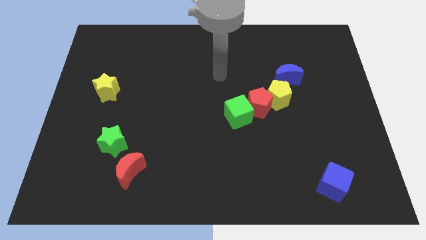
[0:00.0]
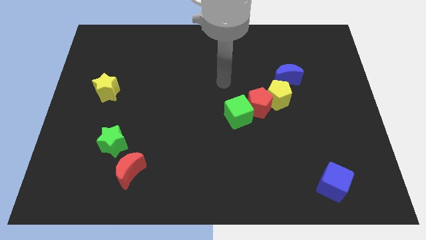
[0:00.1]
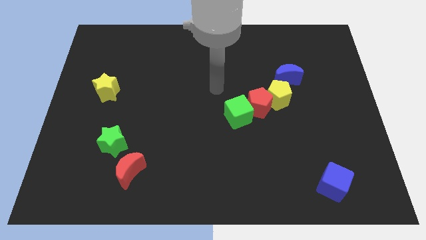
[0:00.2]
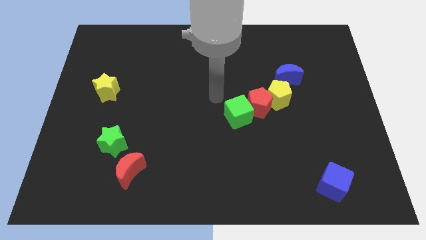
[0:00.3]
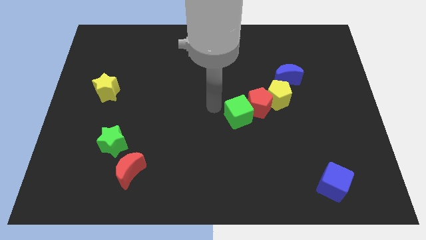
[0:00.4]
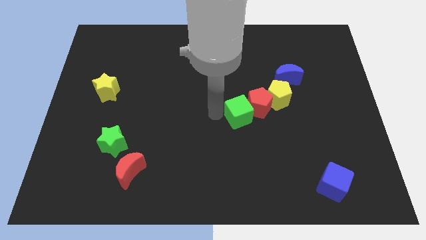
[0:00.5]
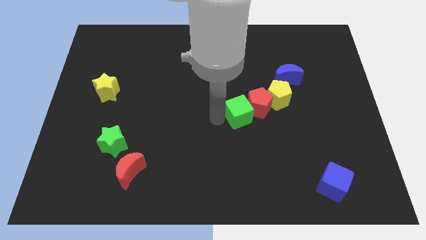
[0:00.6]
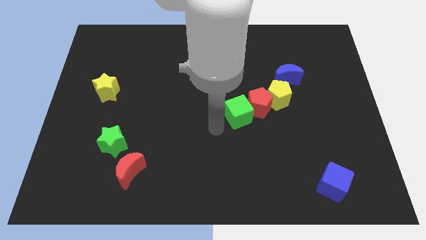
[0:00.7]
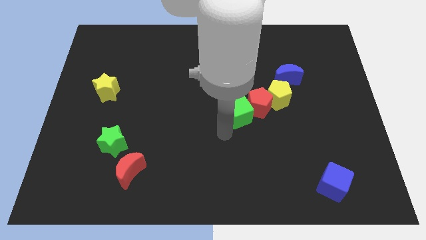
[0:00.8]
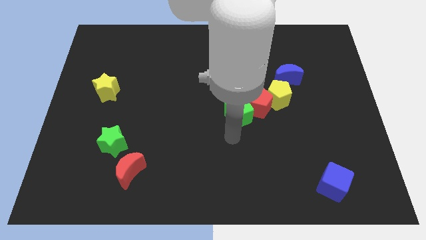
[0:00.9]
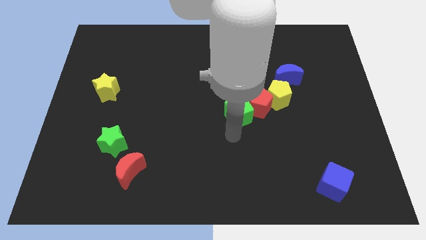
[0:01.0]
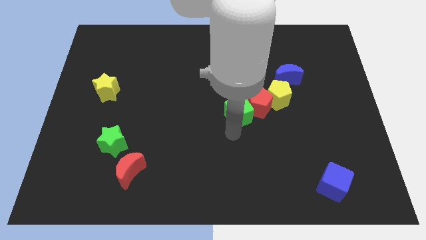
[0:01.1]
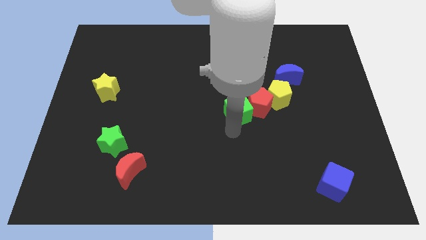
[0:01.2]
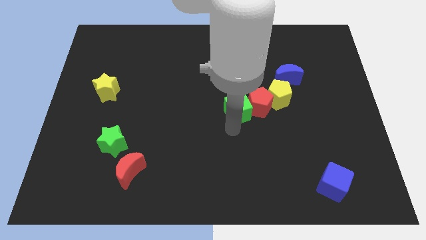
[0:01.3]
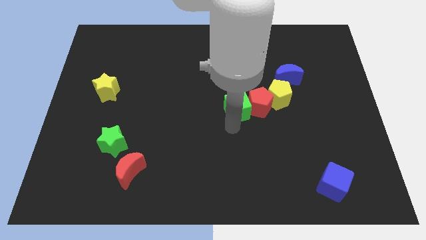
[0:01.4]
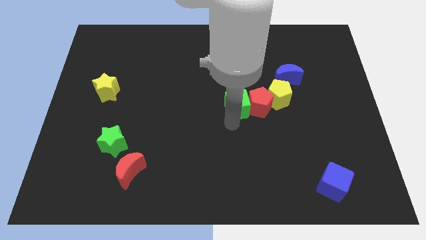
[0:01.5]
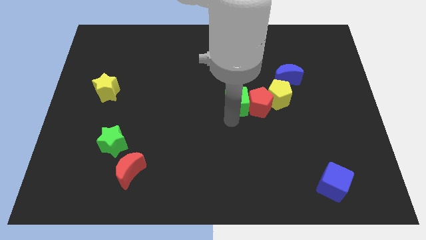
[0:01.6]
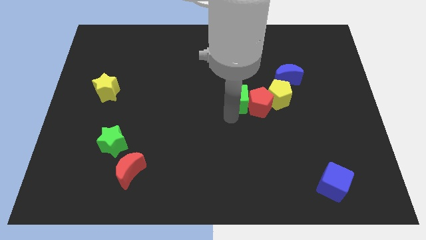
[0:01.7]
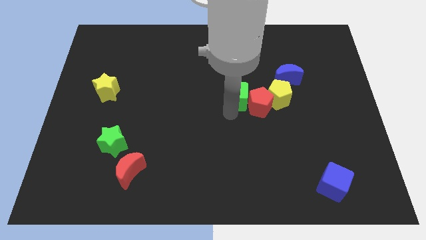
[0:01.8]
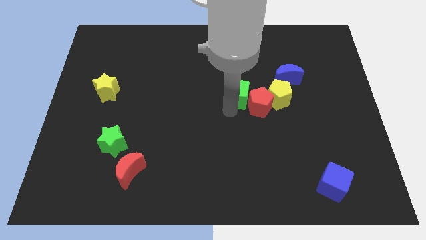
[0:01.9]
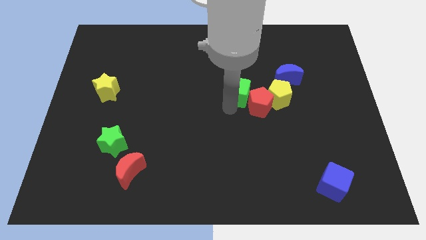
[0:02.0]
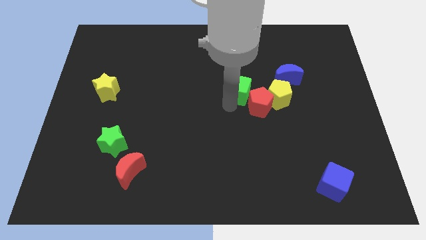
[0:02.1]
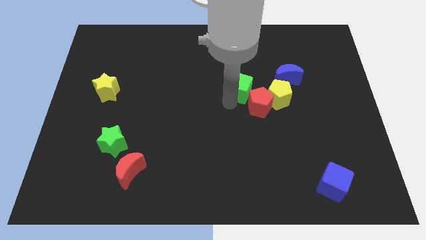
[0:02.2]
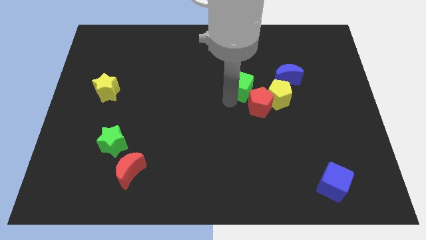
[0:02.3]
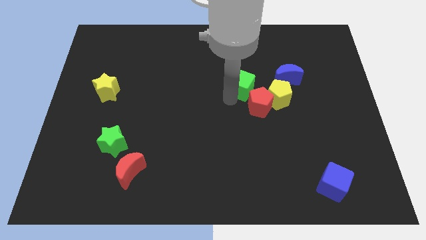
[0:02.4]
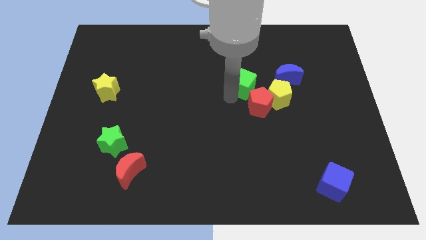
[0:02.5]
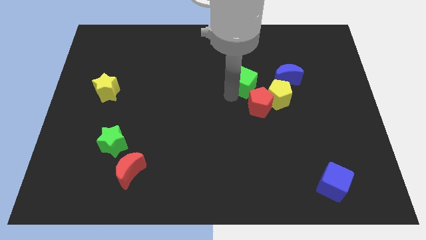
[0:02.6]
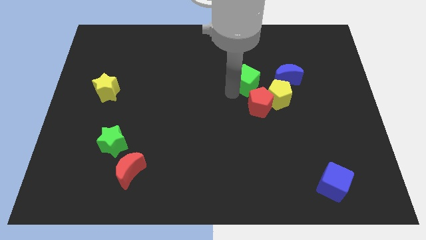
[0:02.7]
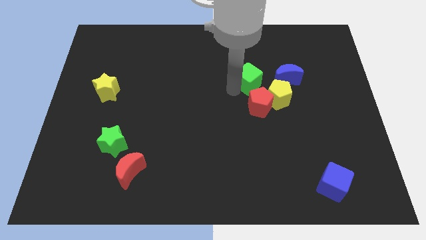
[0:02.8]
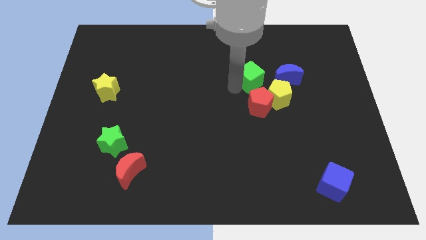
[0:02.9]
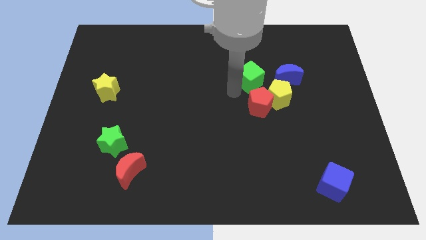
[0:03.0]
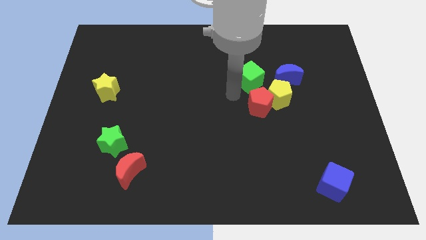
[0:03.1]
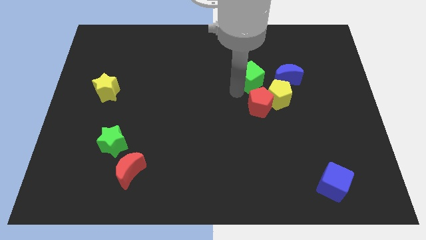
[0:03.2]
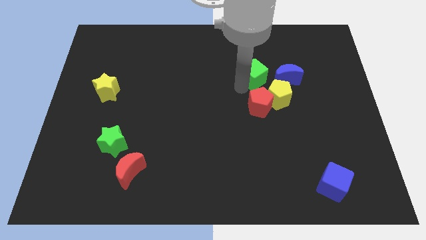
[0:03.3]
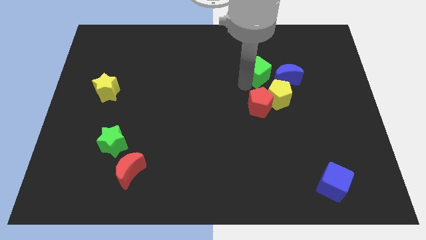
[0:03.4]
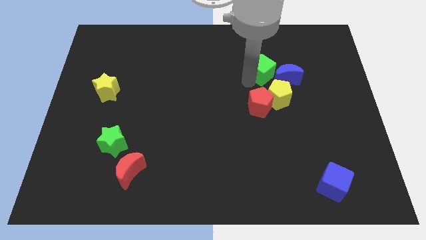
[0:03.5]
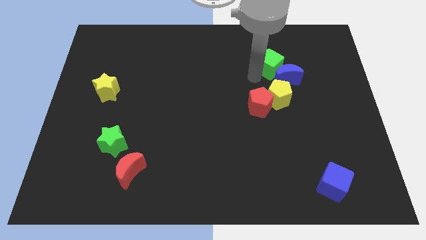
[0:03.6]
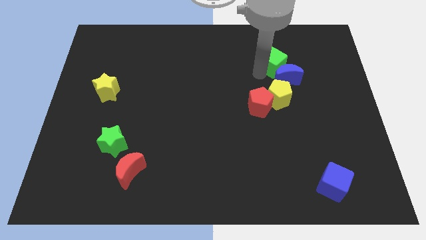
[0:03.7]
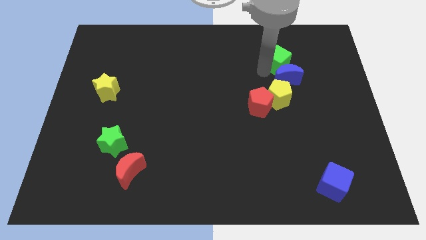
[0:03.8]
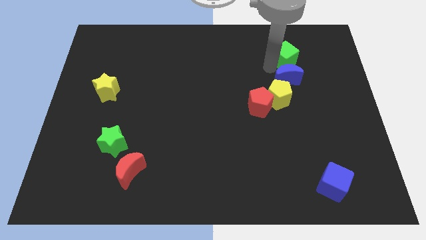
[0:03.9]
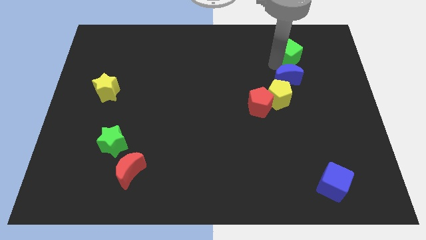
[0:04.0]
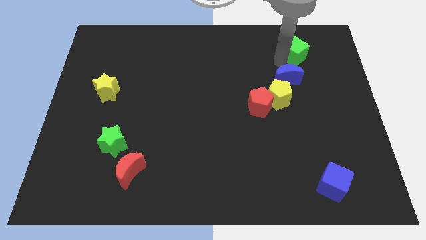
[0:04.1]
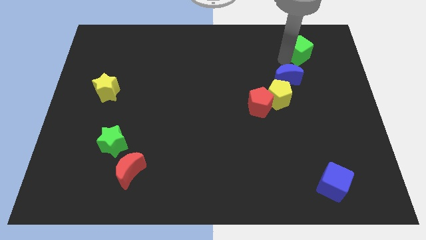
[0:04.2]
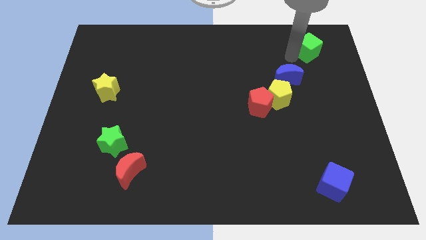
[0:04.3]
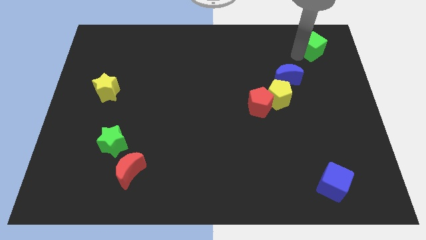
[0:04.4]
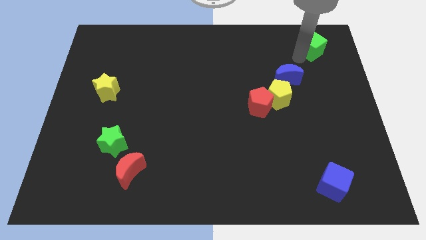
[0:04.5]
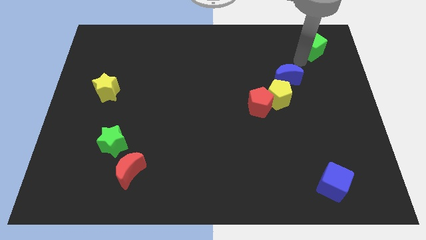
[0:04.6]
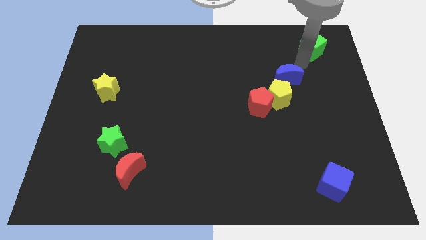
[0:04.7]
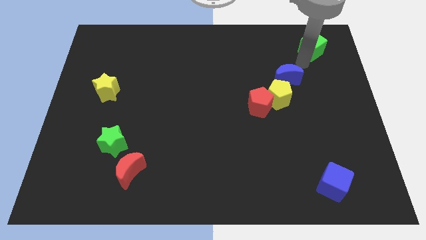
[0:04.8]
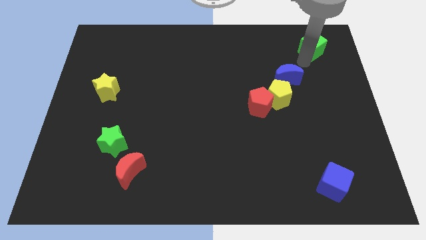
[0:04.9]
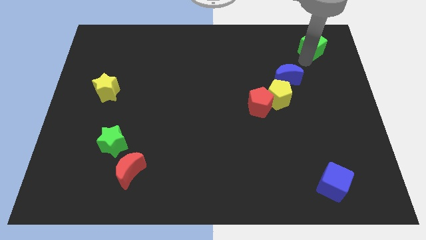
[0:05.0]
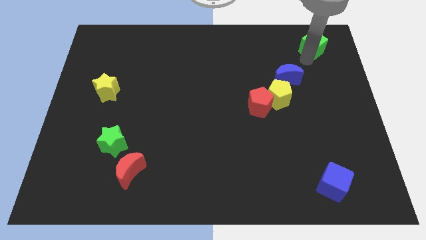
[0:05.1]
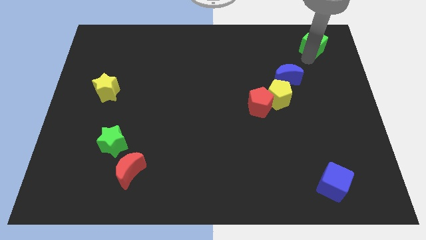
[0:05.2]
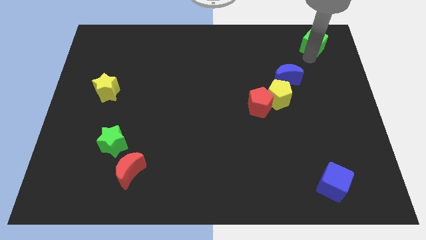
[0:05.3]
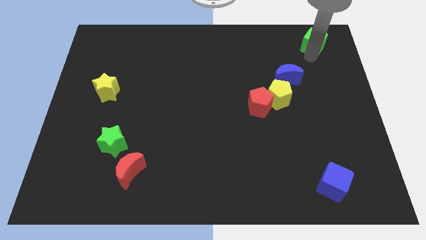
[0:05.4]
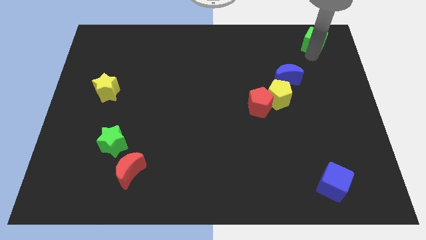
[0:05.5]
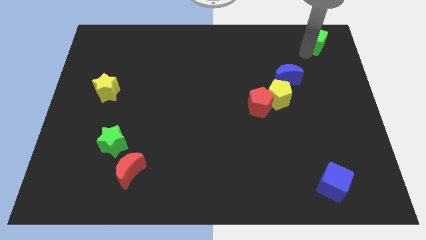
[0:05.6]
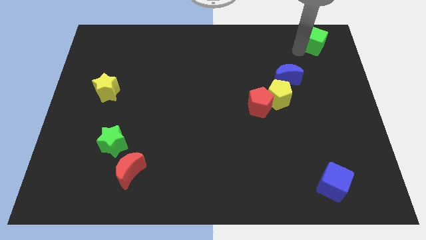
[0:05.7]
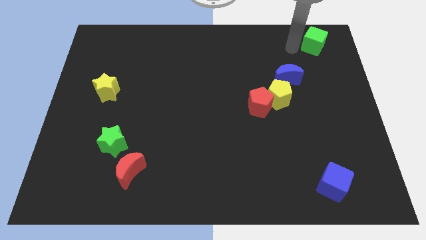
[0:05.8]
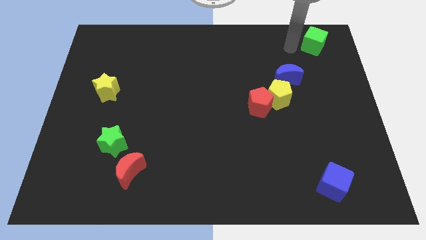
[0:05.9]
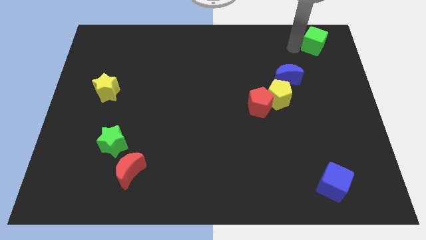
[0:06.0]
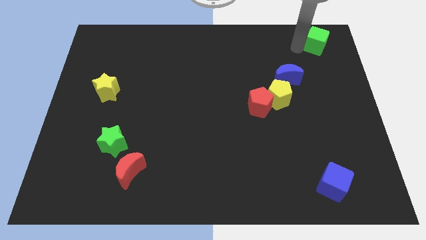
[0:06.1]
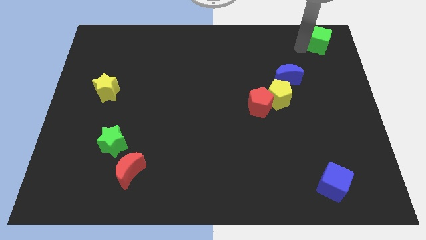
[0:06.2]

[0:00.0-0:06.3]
put the green cube to the top right of the board

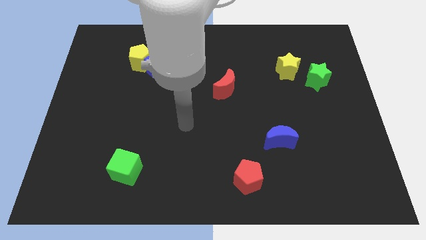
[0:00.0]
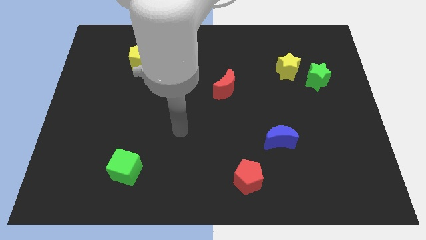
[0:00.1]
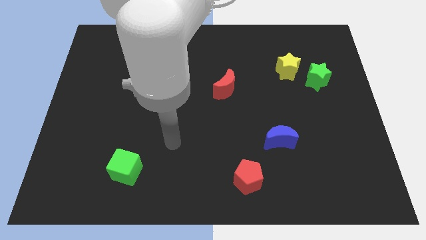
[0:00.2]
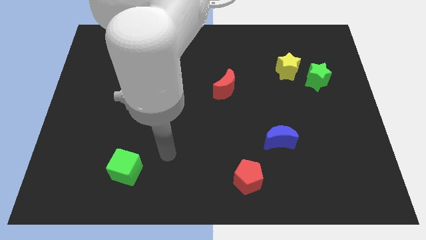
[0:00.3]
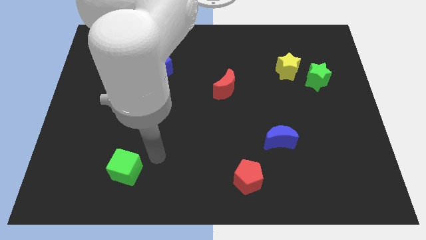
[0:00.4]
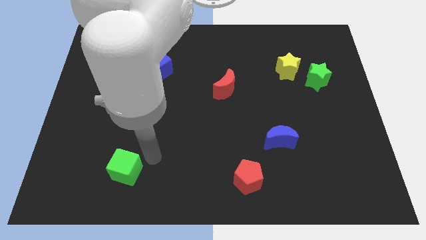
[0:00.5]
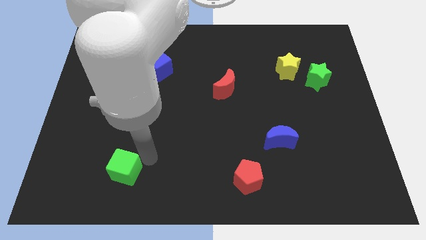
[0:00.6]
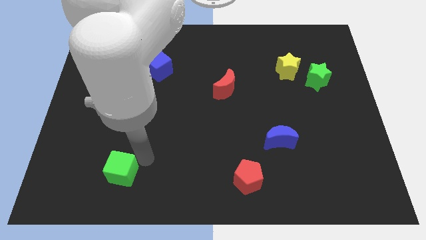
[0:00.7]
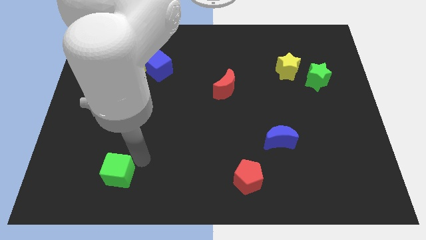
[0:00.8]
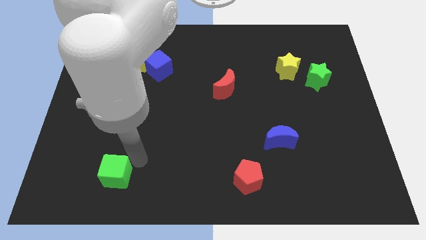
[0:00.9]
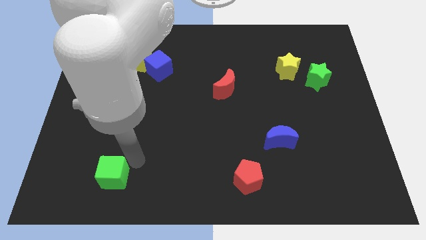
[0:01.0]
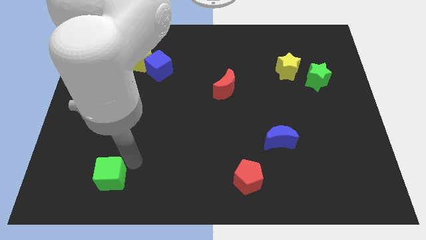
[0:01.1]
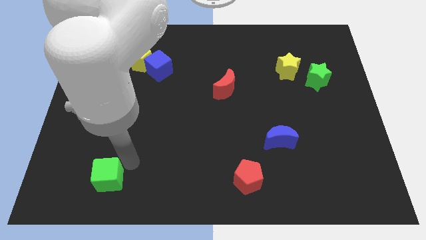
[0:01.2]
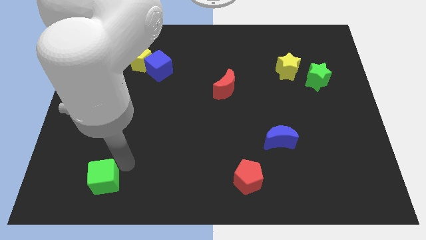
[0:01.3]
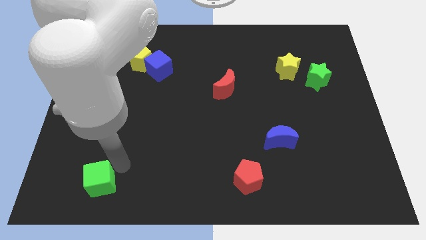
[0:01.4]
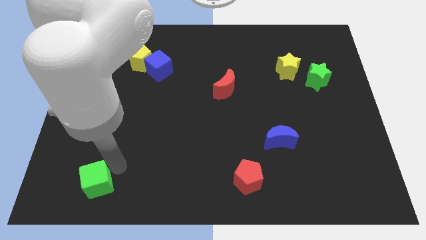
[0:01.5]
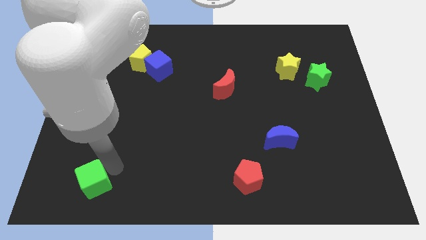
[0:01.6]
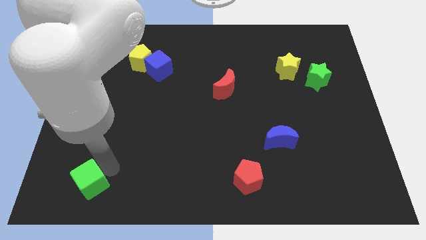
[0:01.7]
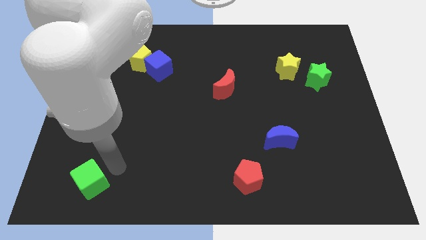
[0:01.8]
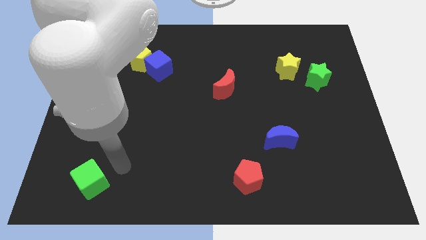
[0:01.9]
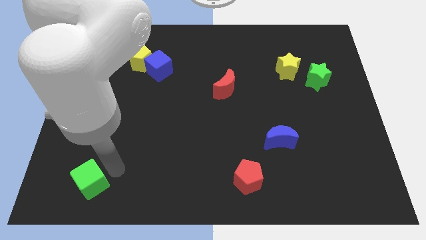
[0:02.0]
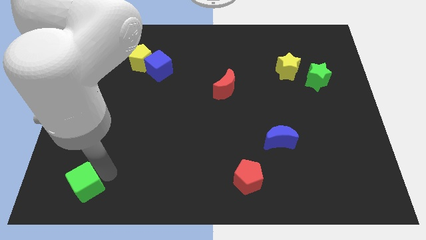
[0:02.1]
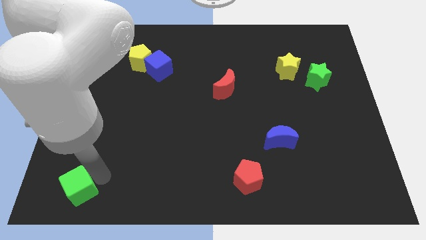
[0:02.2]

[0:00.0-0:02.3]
put the green cube to the lower left corner
